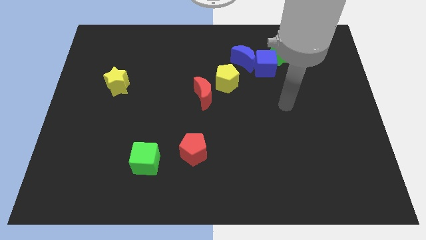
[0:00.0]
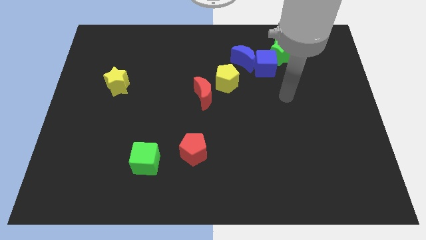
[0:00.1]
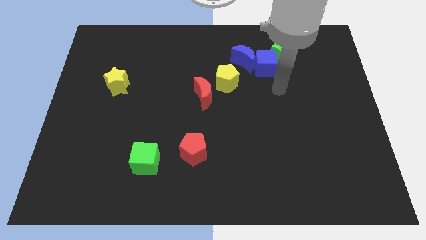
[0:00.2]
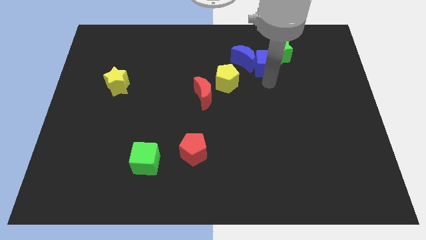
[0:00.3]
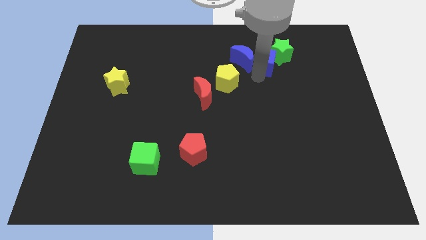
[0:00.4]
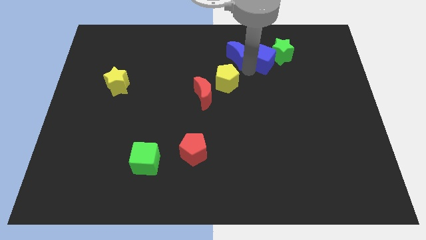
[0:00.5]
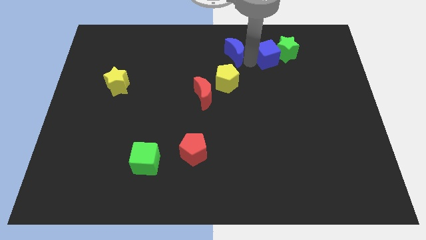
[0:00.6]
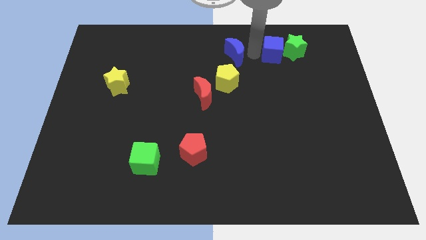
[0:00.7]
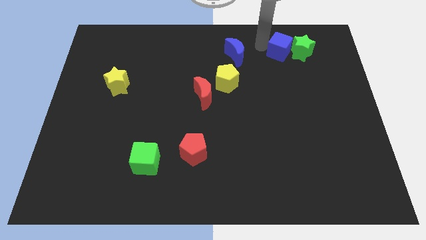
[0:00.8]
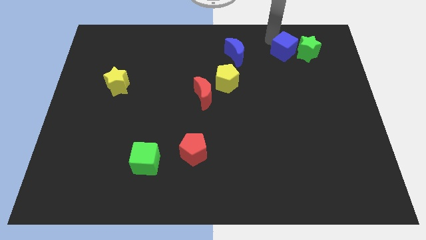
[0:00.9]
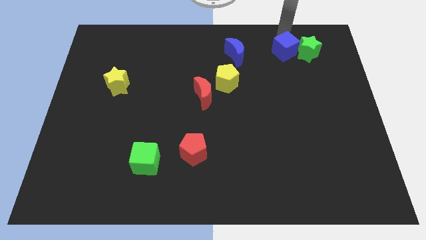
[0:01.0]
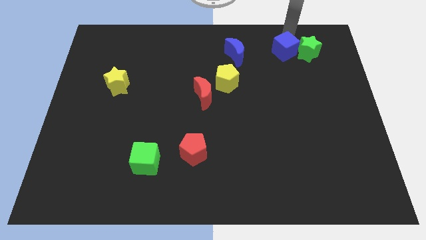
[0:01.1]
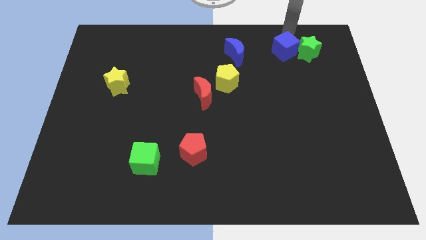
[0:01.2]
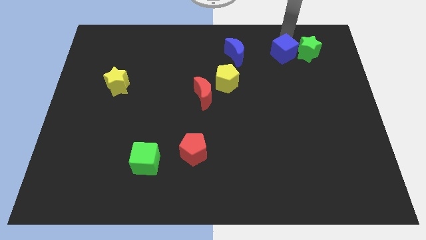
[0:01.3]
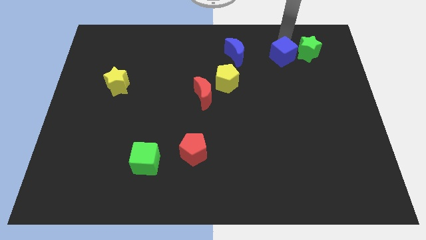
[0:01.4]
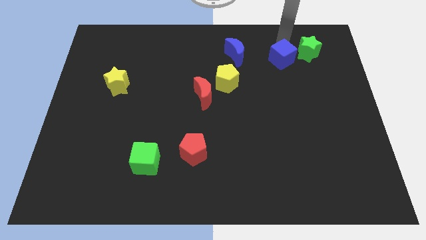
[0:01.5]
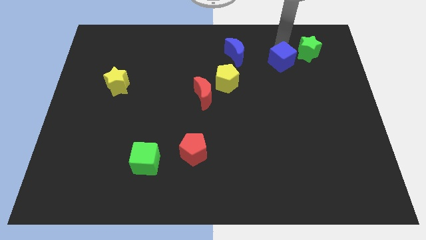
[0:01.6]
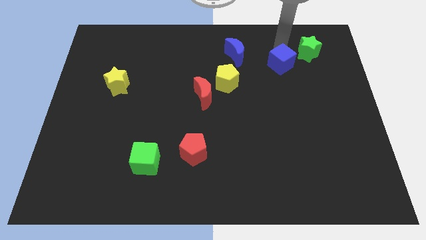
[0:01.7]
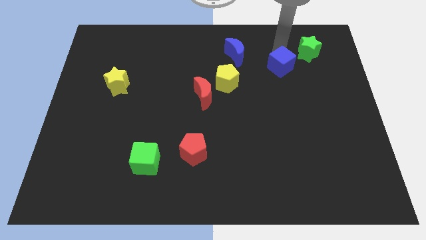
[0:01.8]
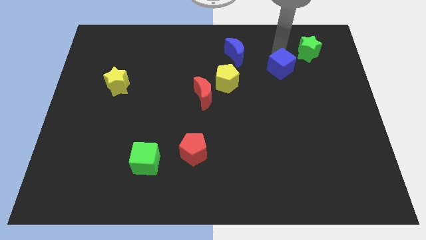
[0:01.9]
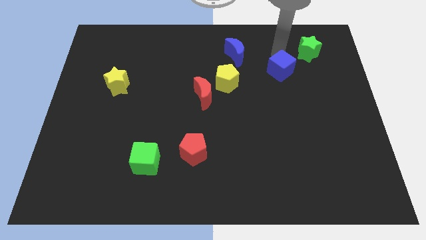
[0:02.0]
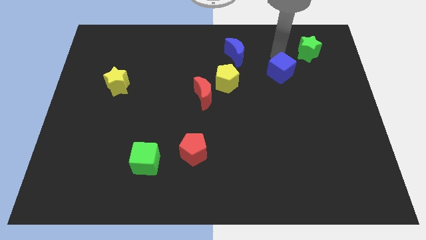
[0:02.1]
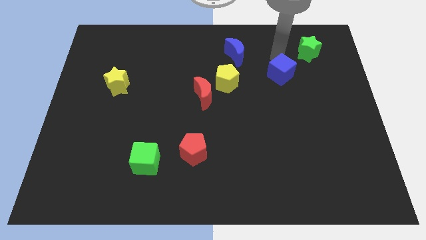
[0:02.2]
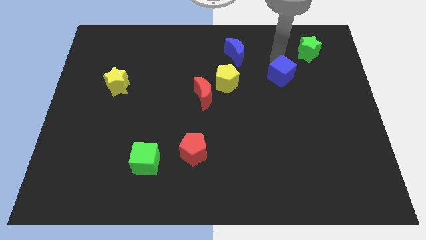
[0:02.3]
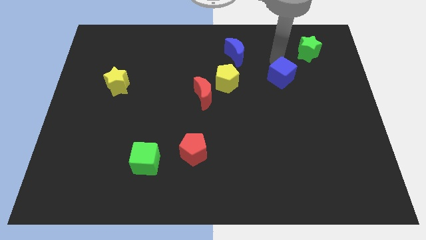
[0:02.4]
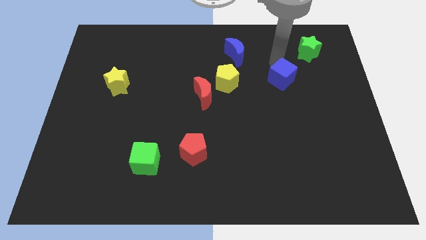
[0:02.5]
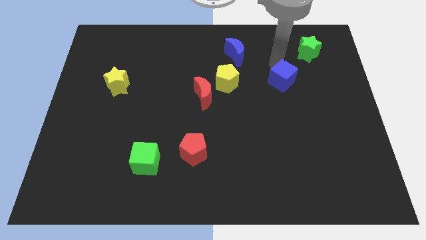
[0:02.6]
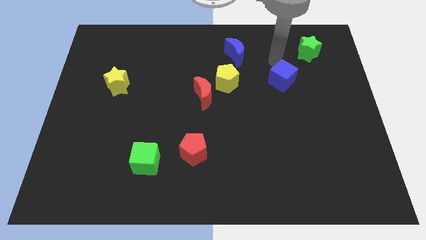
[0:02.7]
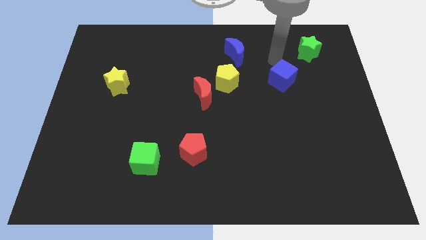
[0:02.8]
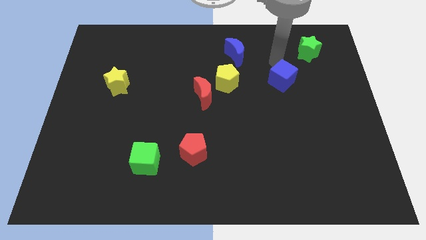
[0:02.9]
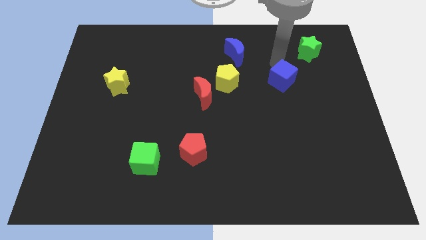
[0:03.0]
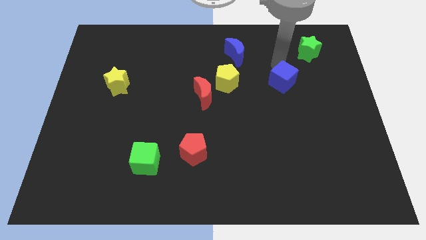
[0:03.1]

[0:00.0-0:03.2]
pull the blue cube apart from the blue moon and green star

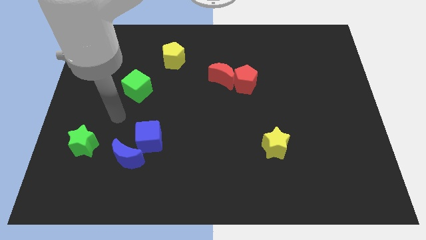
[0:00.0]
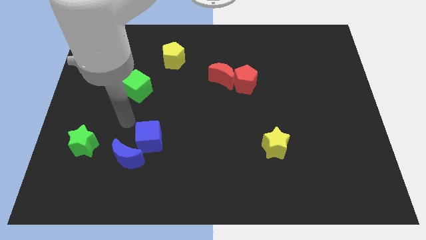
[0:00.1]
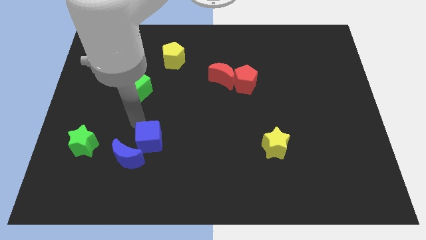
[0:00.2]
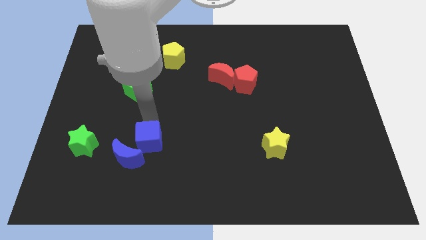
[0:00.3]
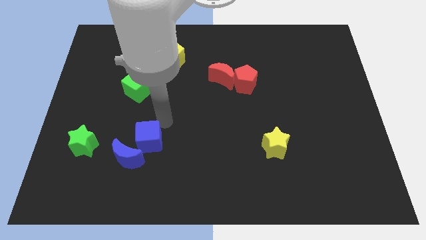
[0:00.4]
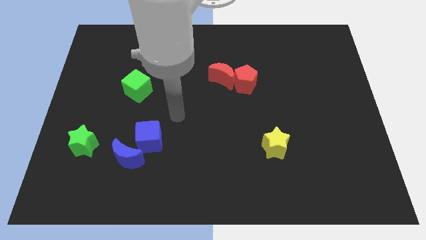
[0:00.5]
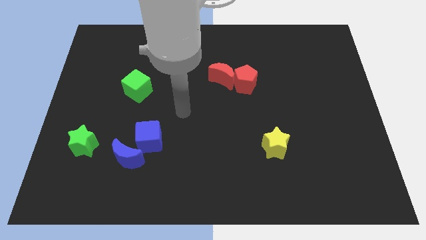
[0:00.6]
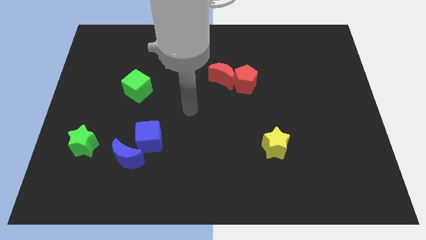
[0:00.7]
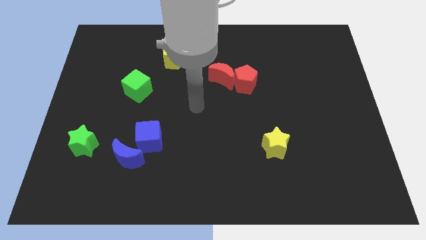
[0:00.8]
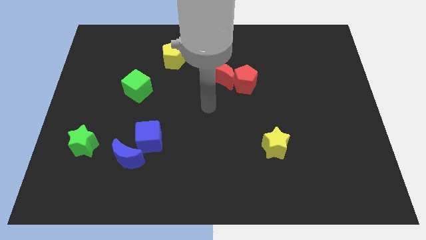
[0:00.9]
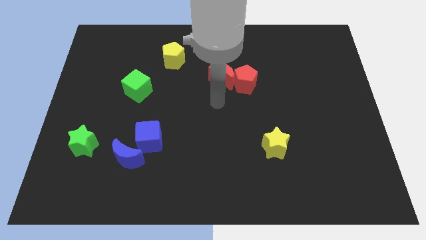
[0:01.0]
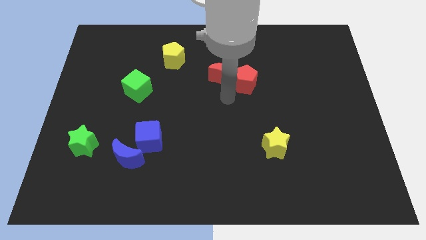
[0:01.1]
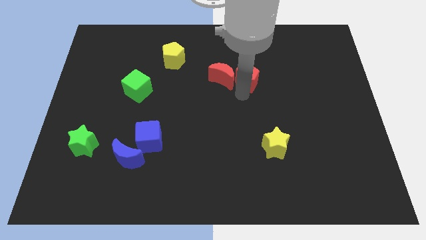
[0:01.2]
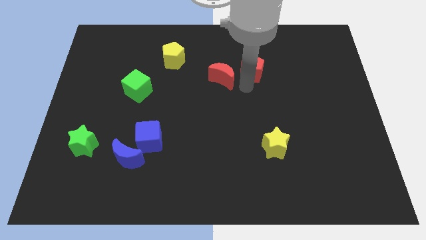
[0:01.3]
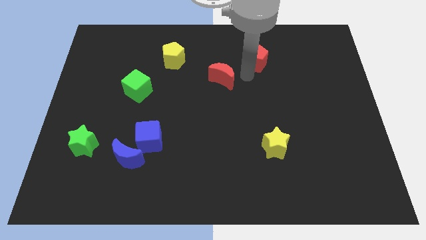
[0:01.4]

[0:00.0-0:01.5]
separate the red moon from the red pentagon

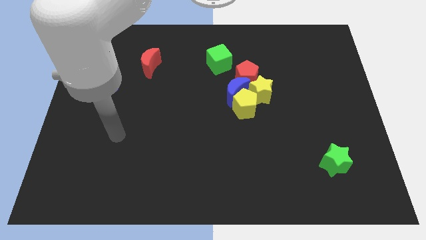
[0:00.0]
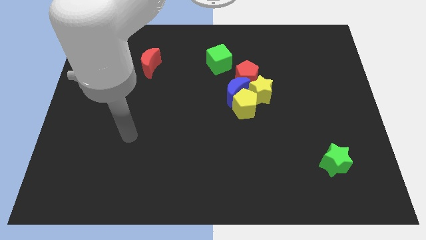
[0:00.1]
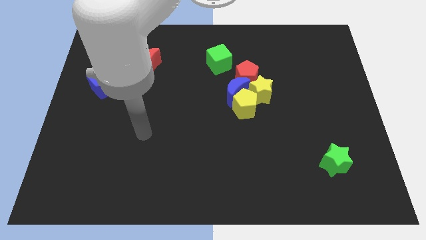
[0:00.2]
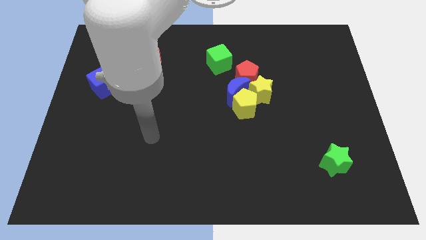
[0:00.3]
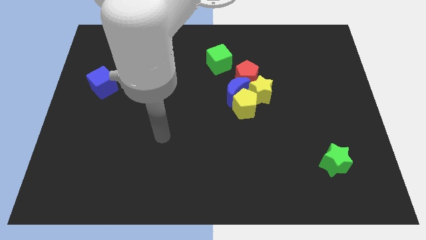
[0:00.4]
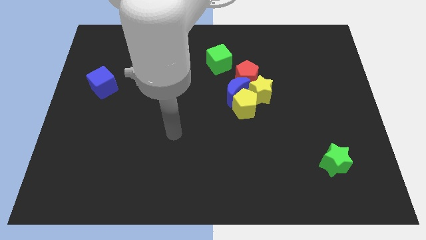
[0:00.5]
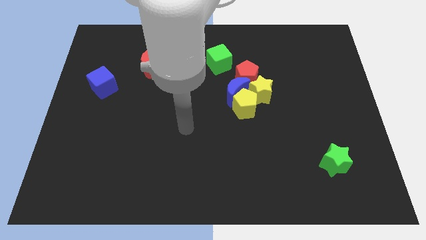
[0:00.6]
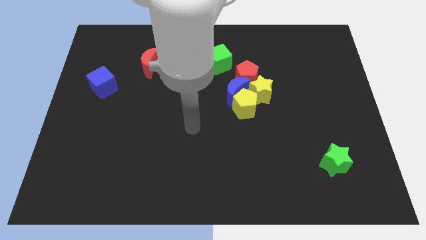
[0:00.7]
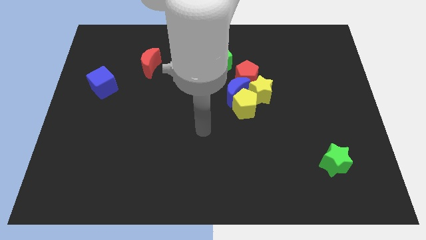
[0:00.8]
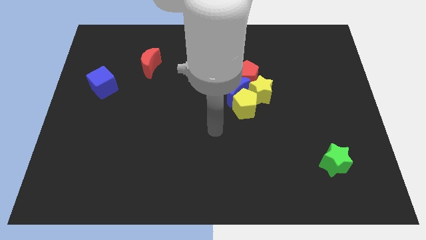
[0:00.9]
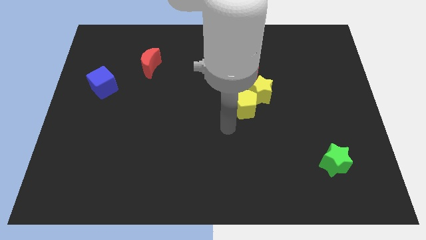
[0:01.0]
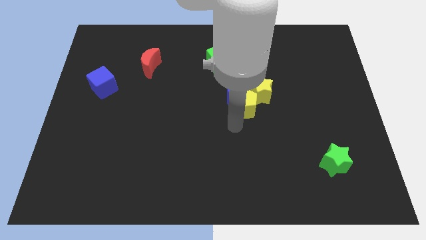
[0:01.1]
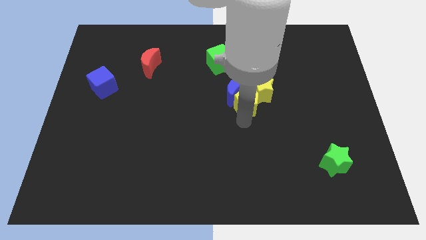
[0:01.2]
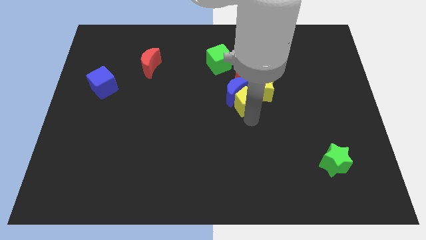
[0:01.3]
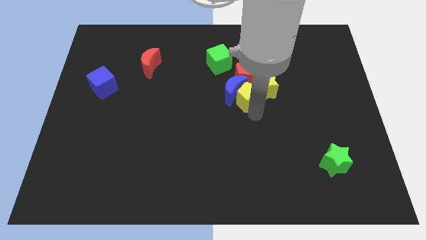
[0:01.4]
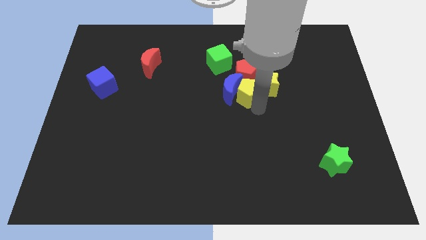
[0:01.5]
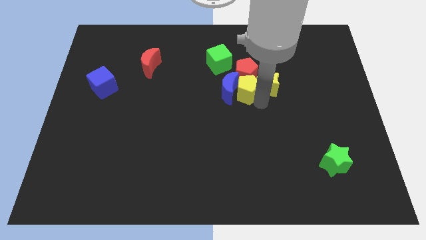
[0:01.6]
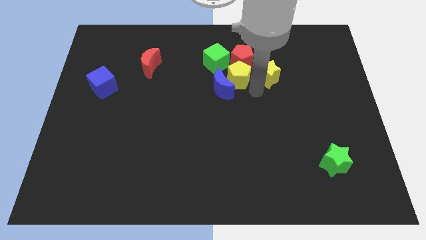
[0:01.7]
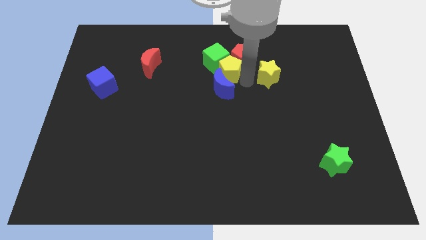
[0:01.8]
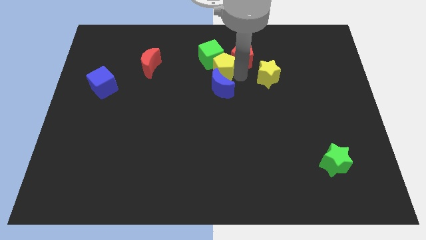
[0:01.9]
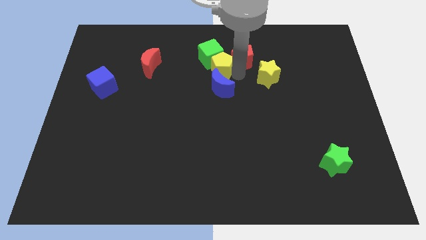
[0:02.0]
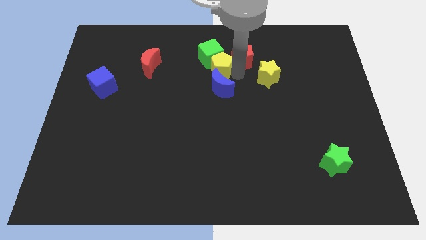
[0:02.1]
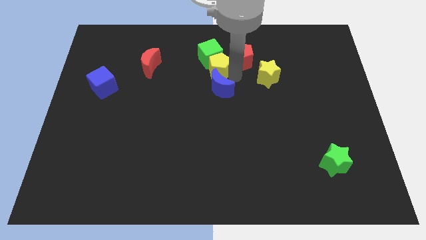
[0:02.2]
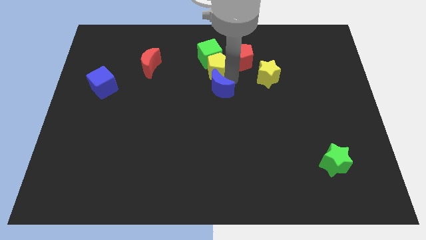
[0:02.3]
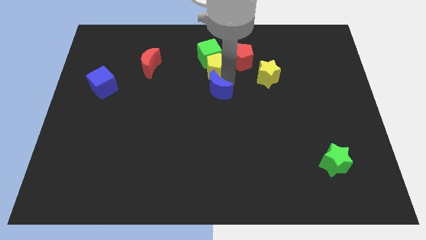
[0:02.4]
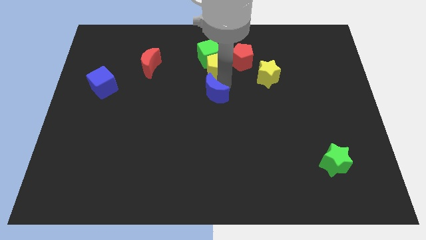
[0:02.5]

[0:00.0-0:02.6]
pull the blue moon apart from the clump

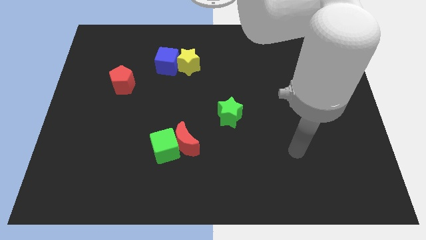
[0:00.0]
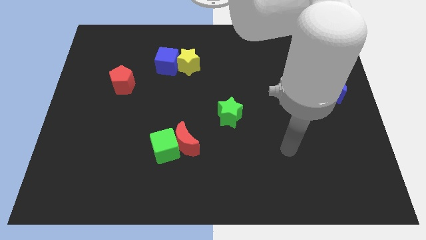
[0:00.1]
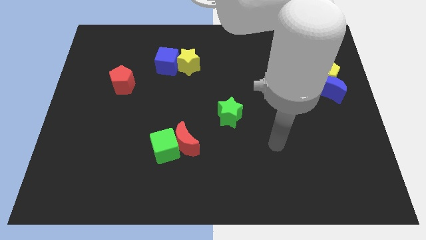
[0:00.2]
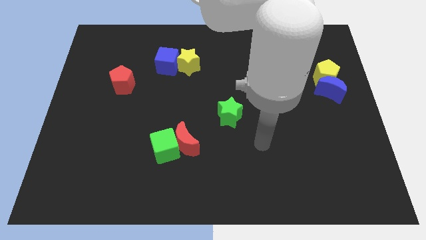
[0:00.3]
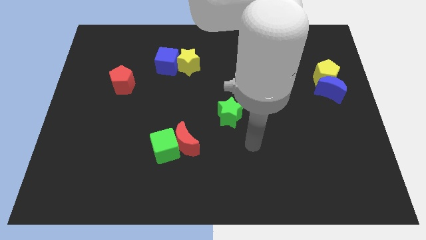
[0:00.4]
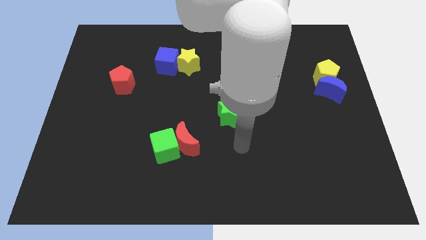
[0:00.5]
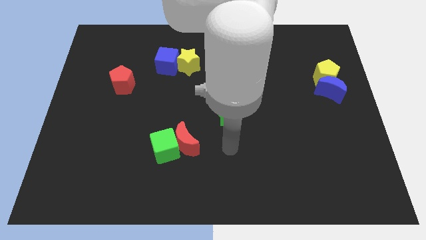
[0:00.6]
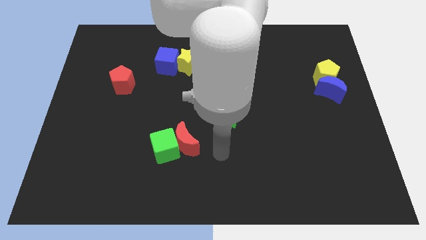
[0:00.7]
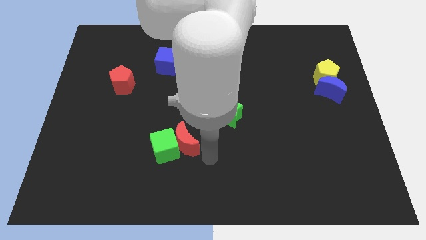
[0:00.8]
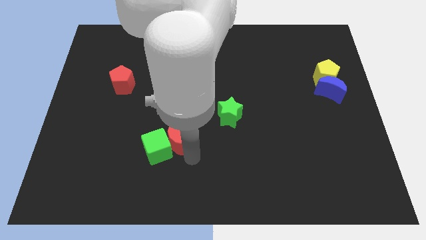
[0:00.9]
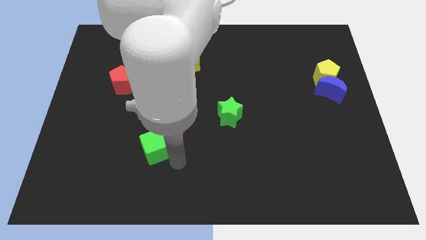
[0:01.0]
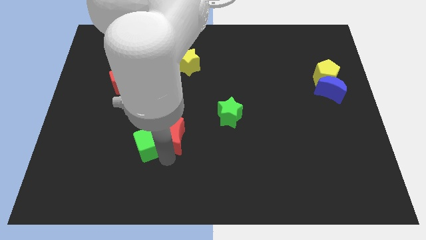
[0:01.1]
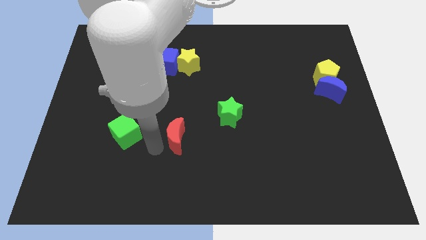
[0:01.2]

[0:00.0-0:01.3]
move the red moon away from the green cube

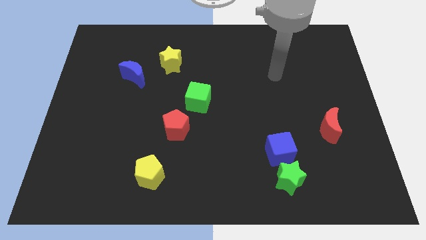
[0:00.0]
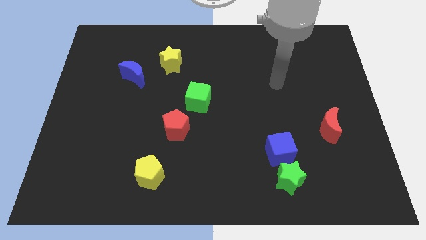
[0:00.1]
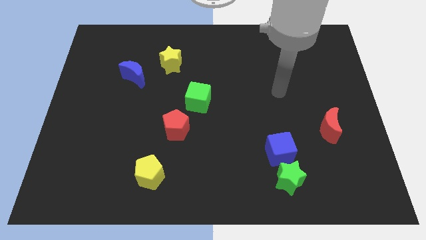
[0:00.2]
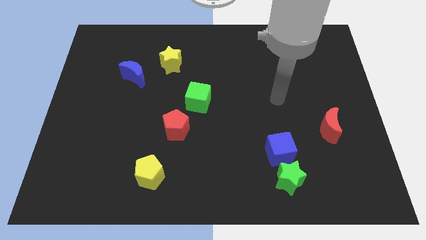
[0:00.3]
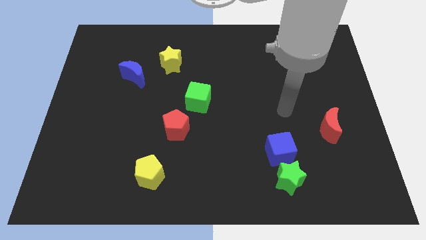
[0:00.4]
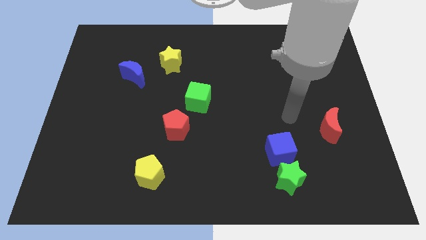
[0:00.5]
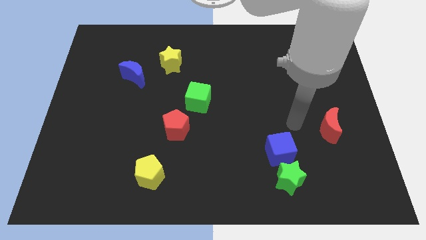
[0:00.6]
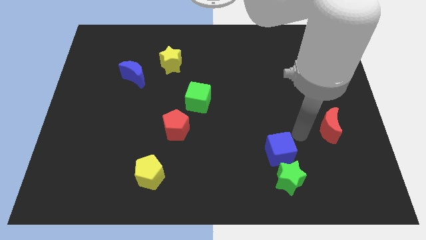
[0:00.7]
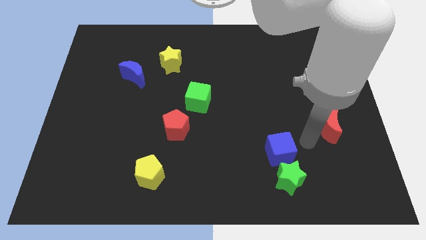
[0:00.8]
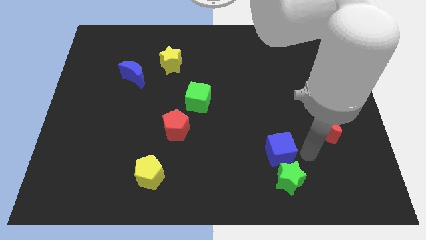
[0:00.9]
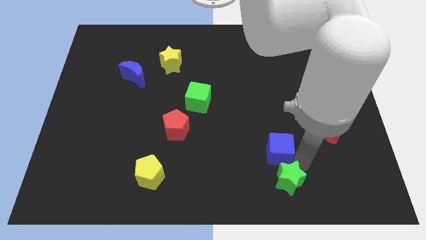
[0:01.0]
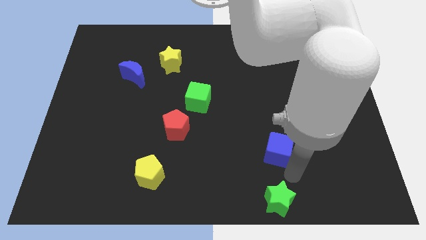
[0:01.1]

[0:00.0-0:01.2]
move the blue cube away from the green star
